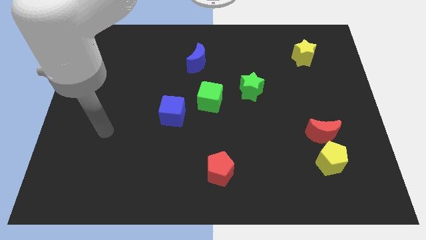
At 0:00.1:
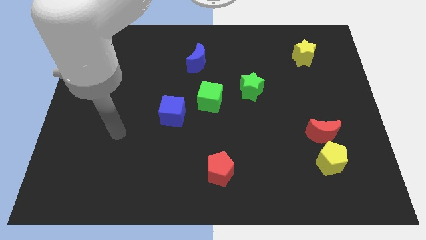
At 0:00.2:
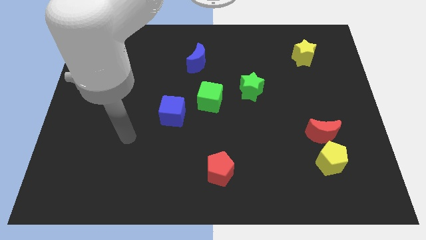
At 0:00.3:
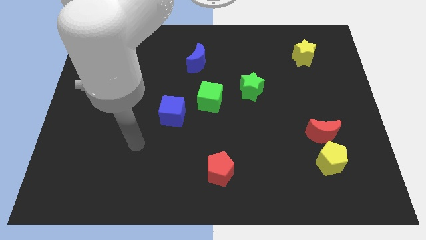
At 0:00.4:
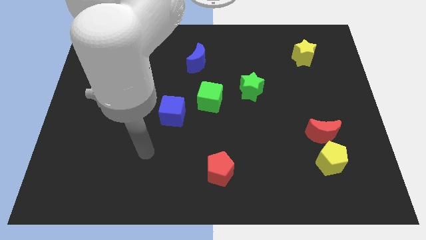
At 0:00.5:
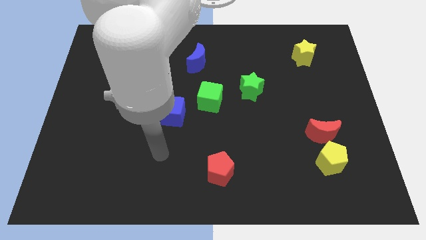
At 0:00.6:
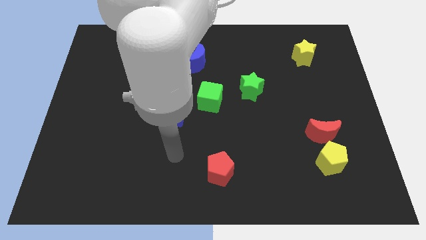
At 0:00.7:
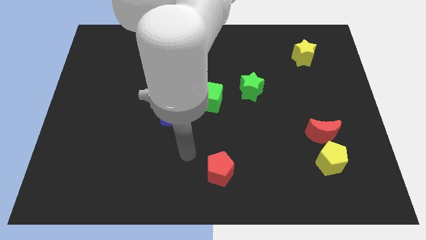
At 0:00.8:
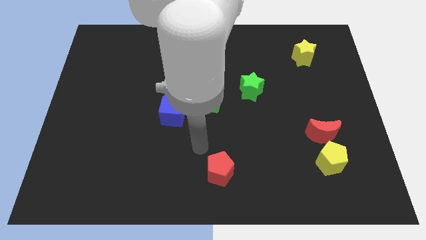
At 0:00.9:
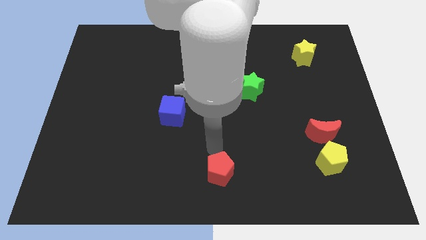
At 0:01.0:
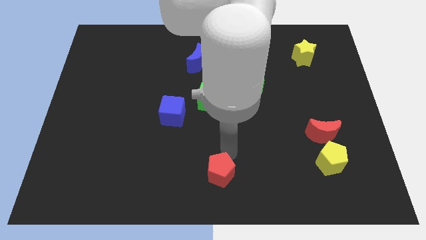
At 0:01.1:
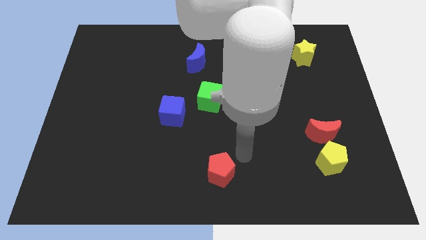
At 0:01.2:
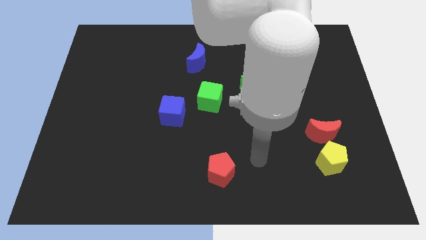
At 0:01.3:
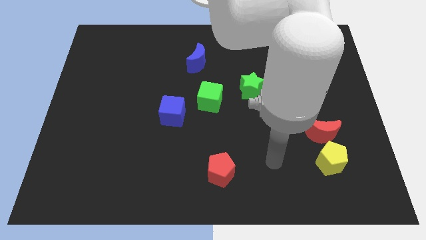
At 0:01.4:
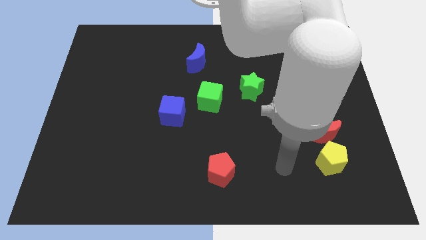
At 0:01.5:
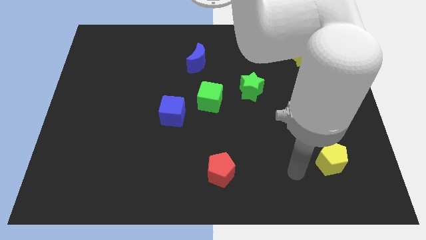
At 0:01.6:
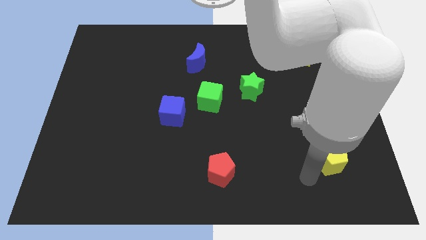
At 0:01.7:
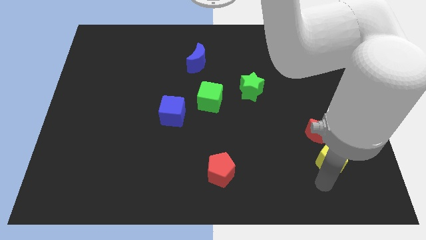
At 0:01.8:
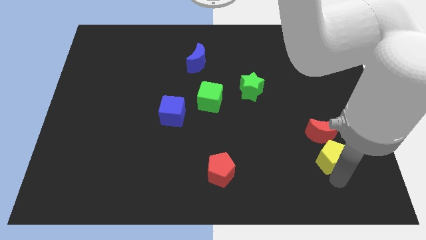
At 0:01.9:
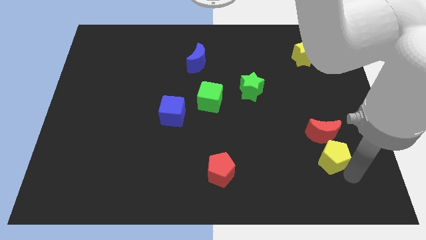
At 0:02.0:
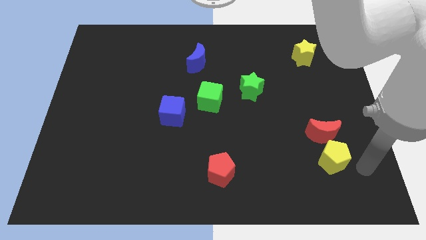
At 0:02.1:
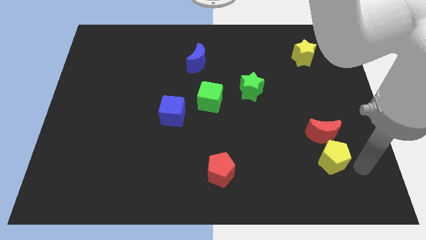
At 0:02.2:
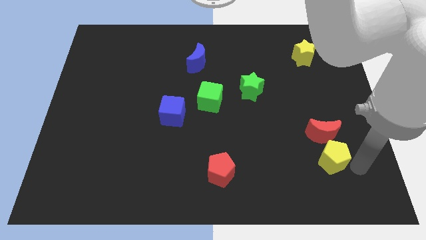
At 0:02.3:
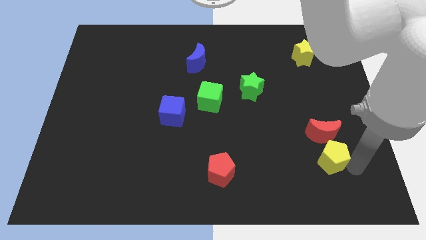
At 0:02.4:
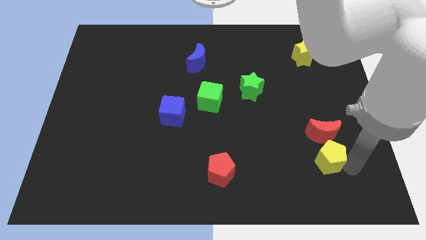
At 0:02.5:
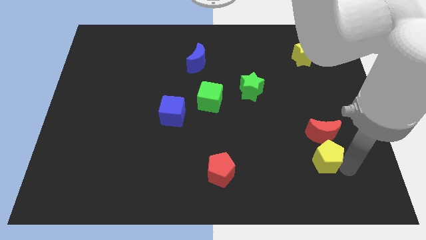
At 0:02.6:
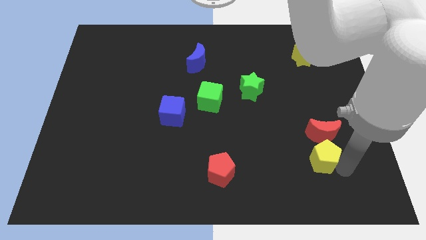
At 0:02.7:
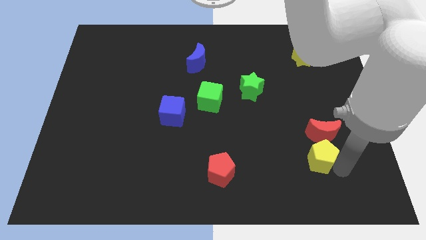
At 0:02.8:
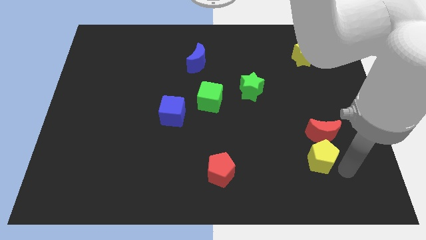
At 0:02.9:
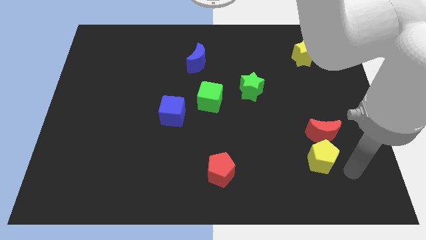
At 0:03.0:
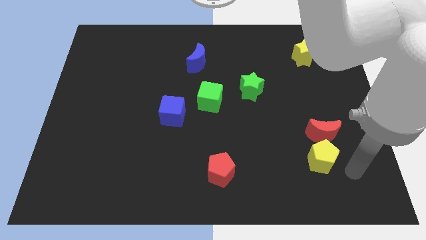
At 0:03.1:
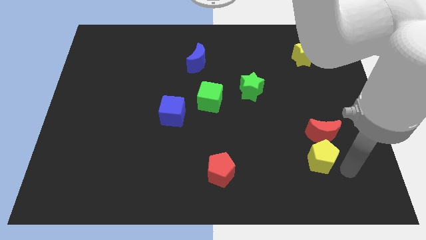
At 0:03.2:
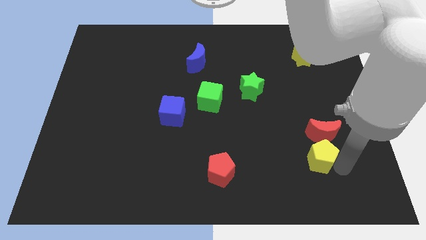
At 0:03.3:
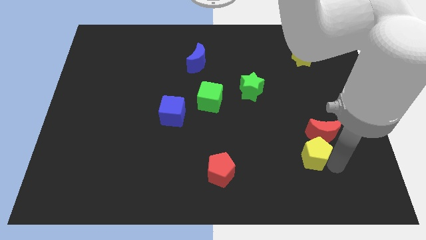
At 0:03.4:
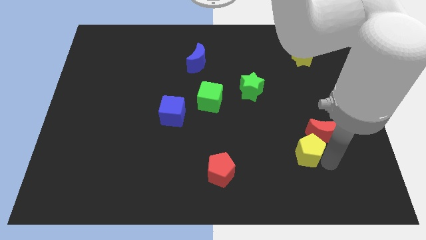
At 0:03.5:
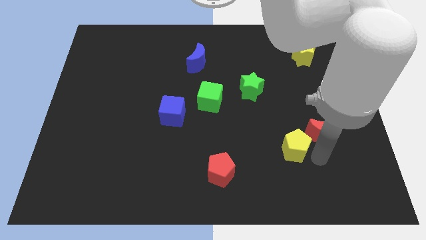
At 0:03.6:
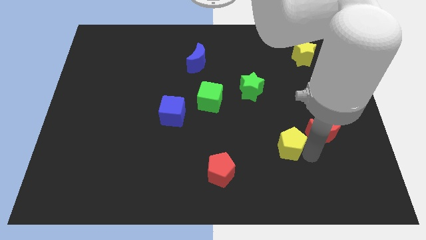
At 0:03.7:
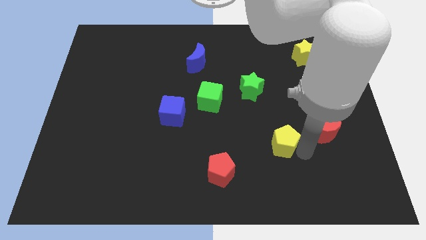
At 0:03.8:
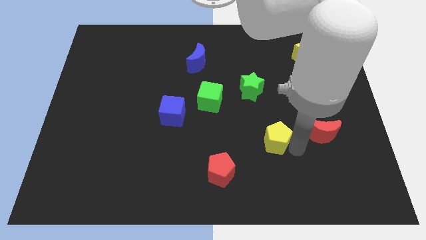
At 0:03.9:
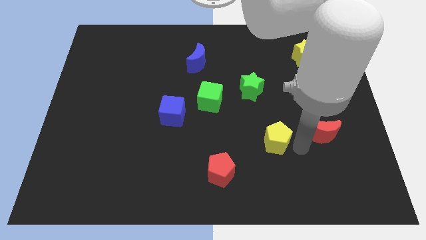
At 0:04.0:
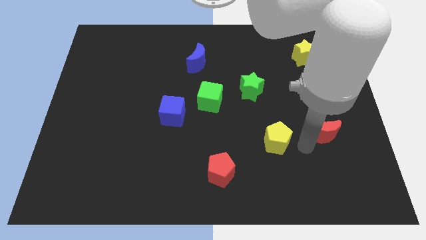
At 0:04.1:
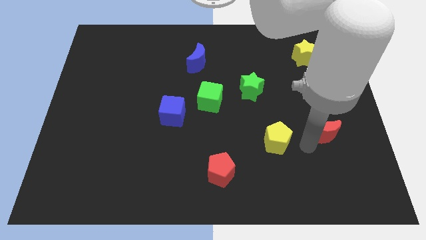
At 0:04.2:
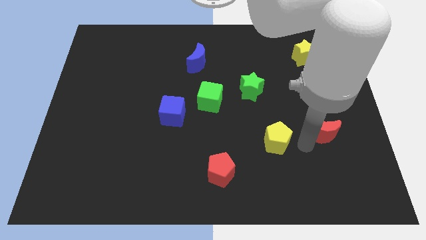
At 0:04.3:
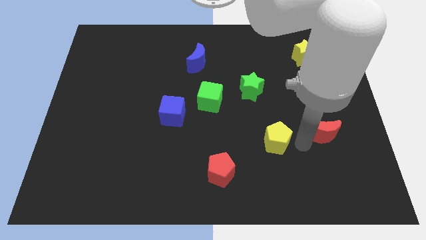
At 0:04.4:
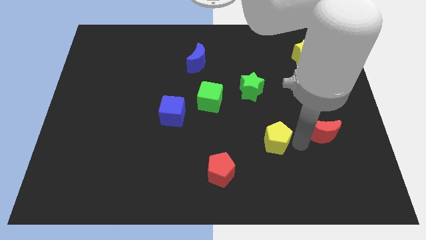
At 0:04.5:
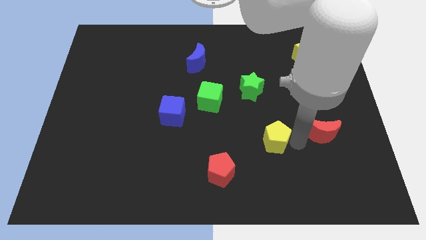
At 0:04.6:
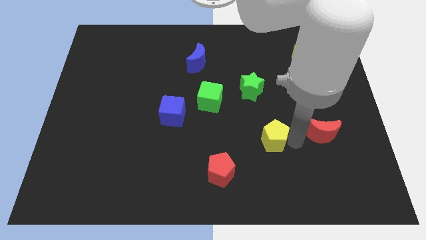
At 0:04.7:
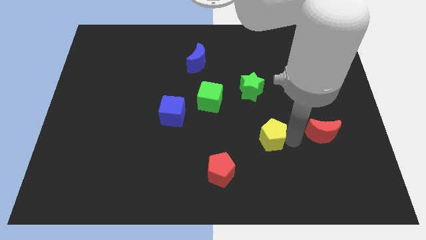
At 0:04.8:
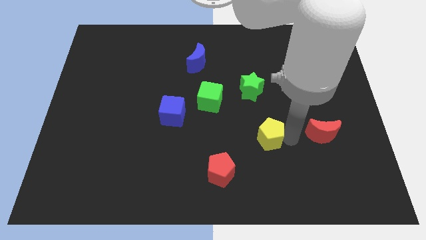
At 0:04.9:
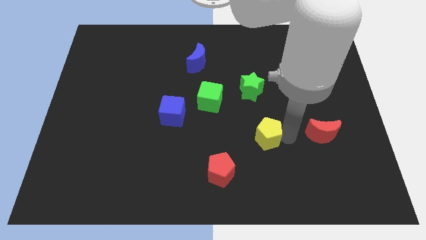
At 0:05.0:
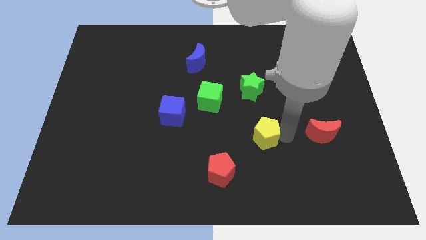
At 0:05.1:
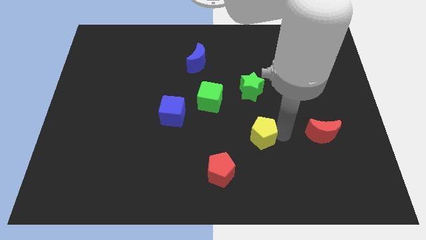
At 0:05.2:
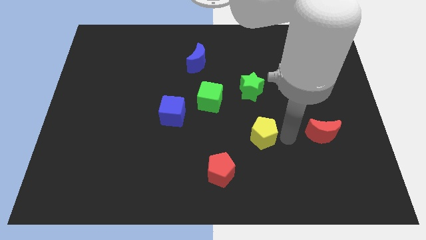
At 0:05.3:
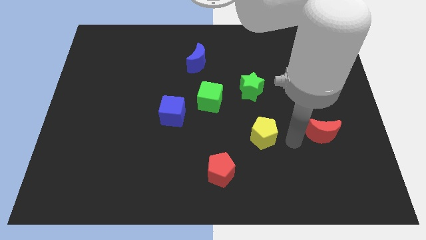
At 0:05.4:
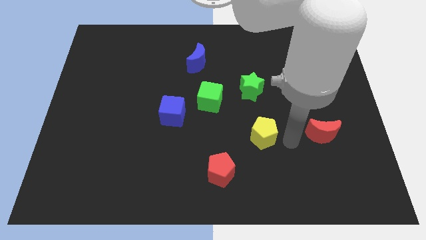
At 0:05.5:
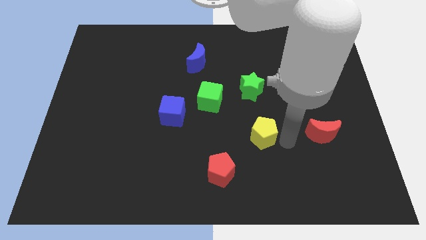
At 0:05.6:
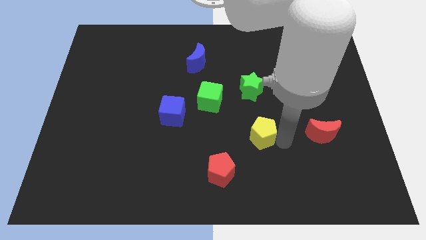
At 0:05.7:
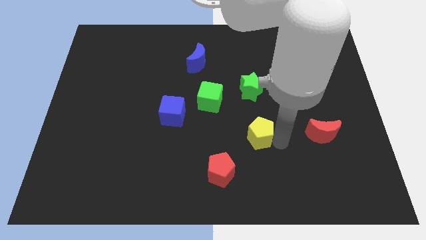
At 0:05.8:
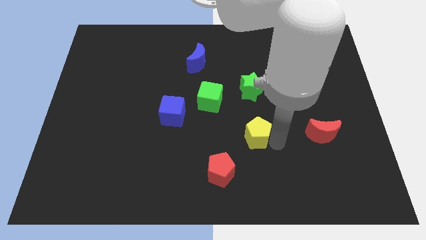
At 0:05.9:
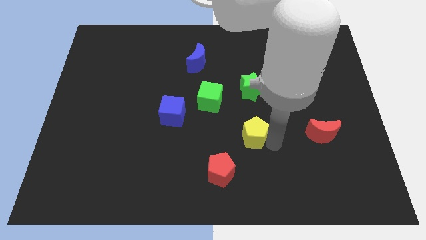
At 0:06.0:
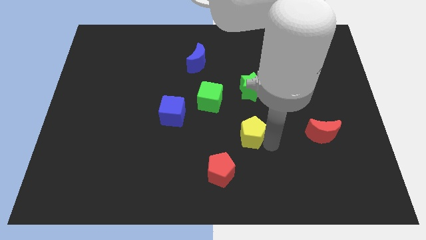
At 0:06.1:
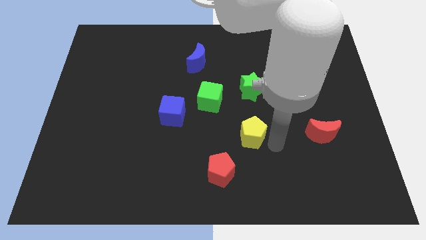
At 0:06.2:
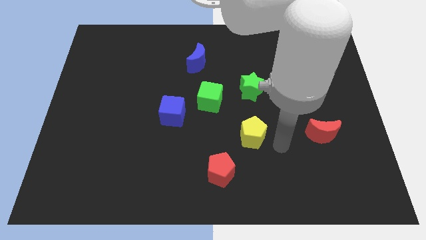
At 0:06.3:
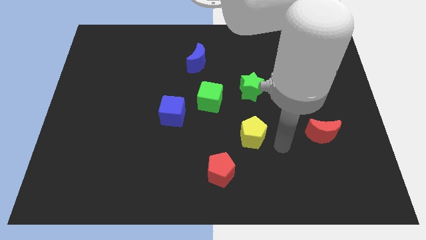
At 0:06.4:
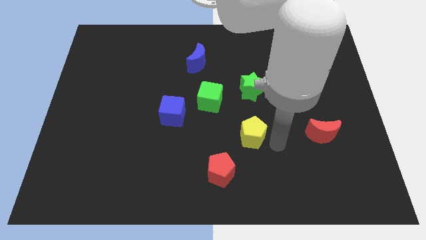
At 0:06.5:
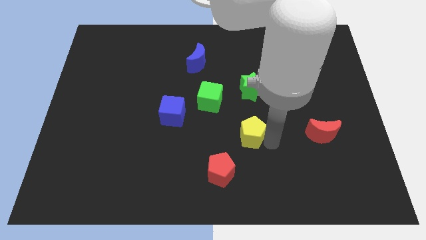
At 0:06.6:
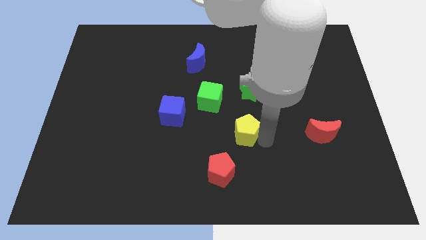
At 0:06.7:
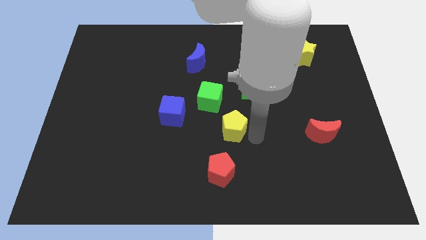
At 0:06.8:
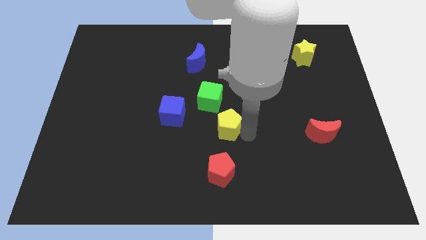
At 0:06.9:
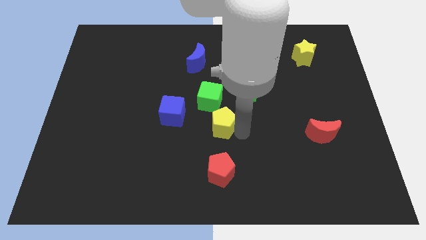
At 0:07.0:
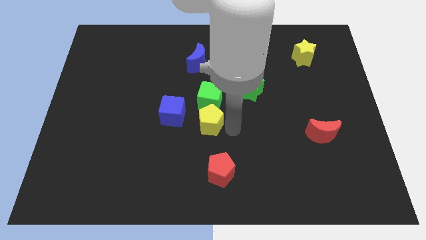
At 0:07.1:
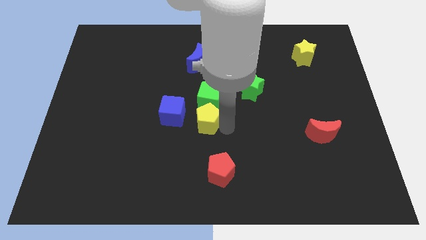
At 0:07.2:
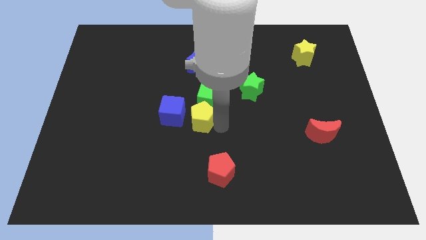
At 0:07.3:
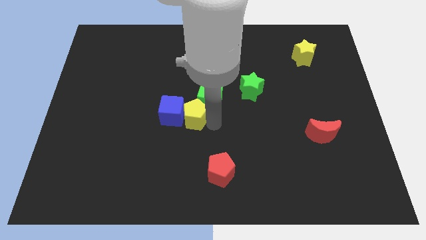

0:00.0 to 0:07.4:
push the yellow pentagon to the blue cube

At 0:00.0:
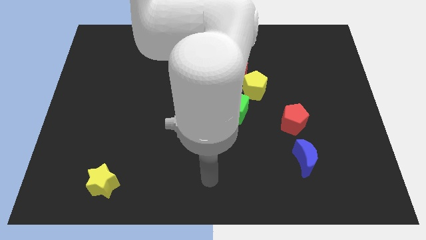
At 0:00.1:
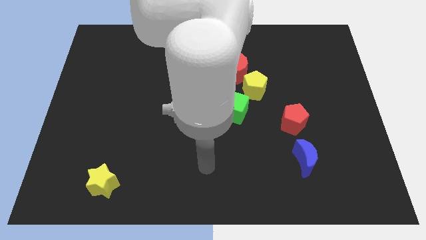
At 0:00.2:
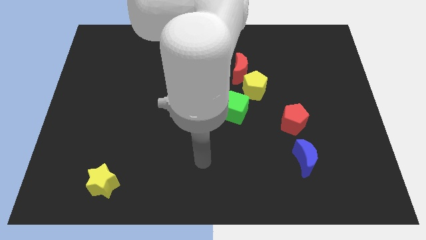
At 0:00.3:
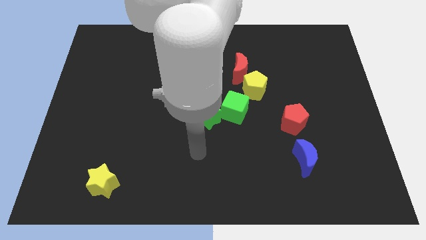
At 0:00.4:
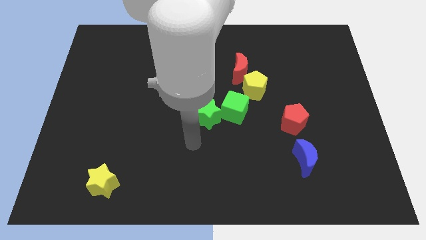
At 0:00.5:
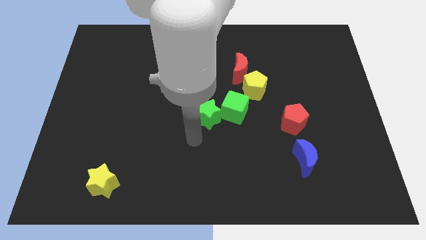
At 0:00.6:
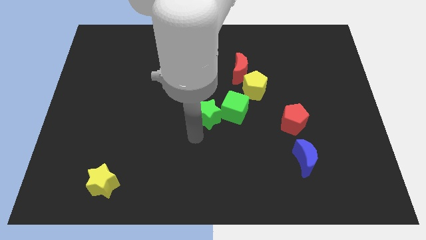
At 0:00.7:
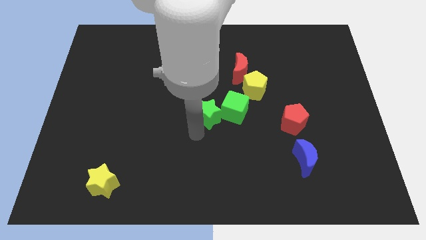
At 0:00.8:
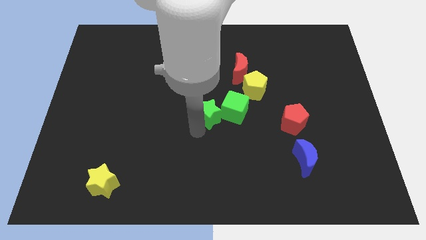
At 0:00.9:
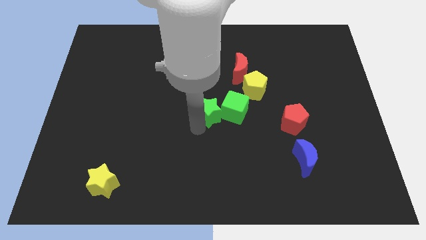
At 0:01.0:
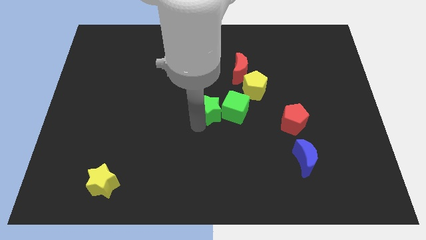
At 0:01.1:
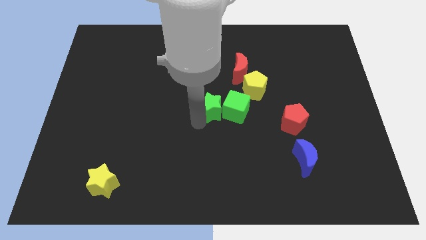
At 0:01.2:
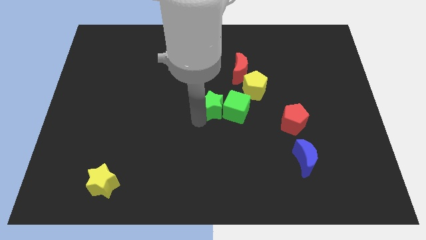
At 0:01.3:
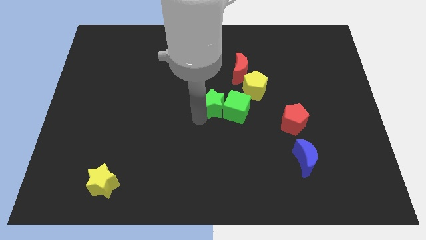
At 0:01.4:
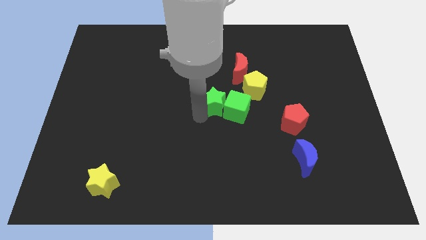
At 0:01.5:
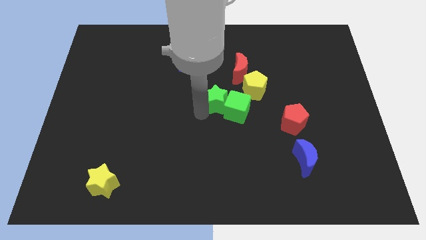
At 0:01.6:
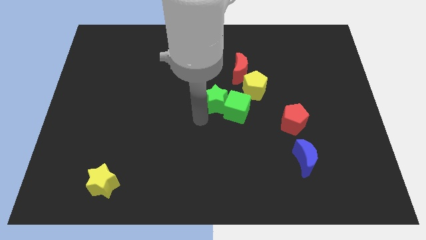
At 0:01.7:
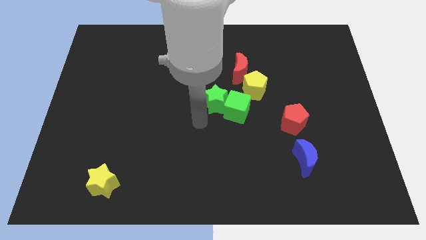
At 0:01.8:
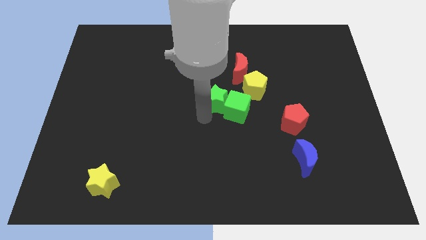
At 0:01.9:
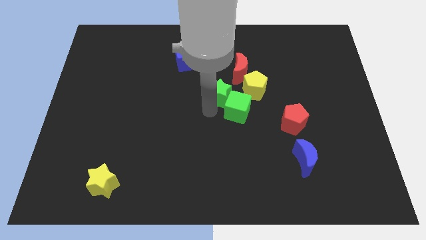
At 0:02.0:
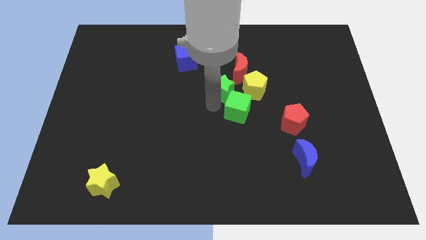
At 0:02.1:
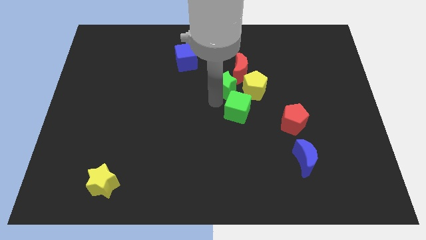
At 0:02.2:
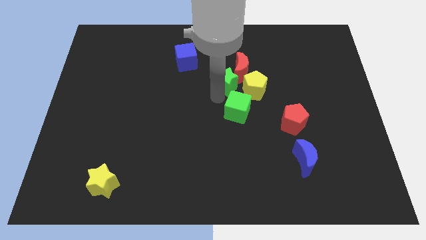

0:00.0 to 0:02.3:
slide the green star towards the red moon
